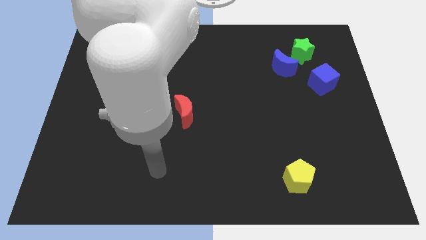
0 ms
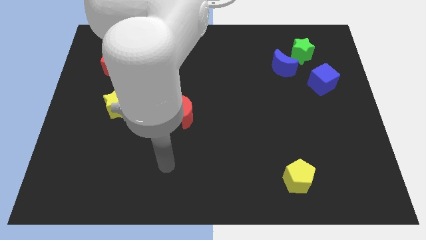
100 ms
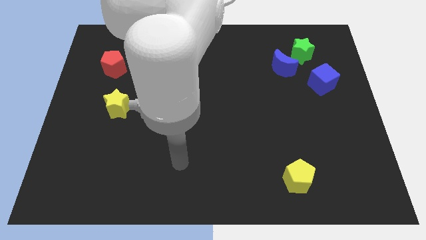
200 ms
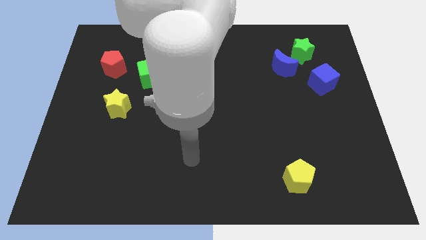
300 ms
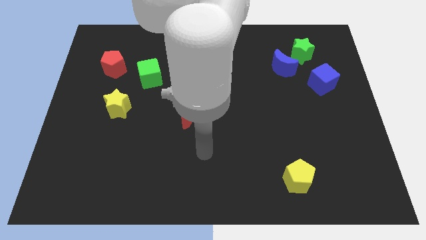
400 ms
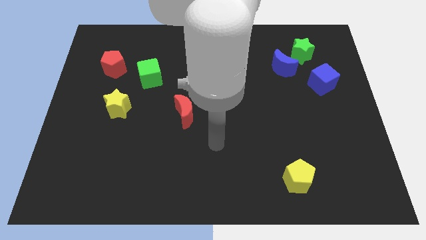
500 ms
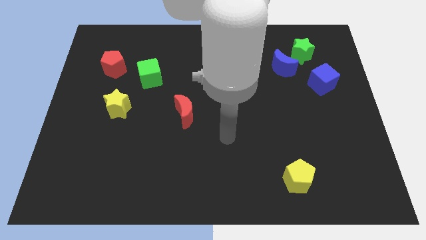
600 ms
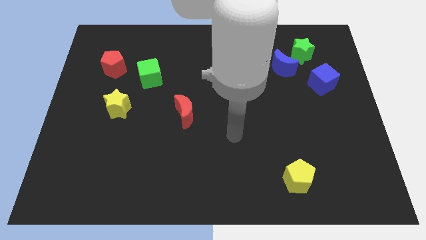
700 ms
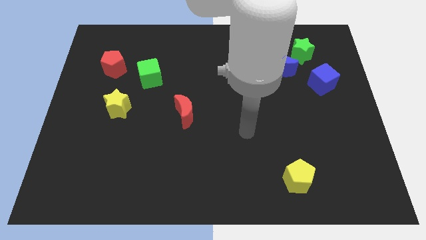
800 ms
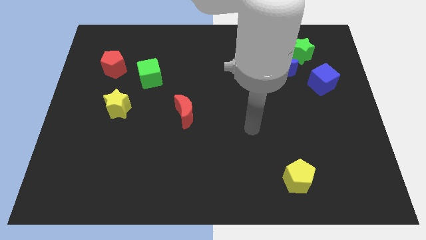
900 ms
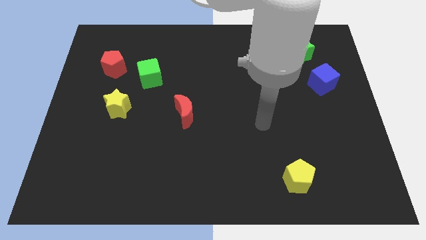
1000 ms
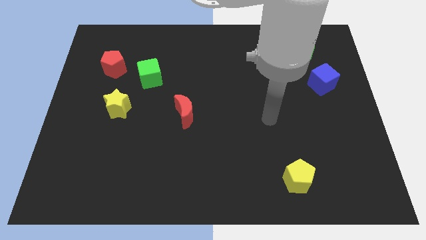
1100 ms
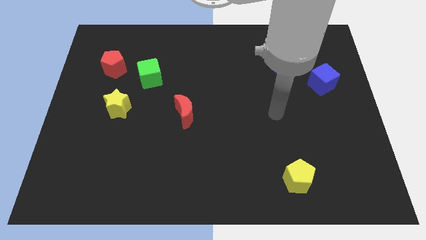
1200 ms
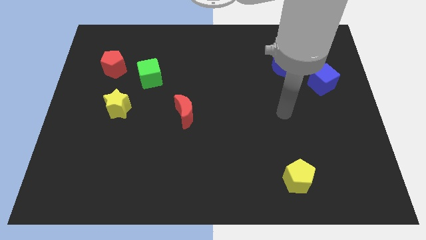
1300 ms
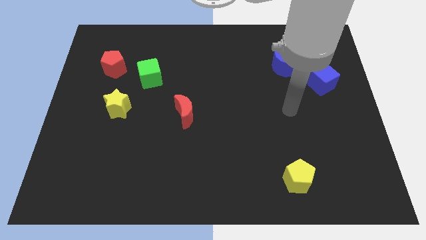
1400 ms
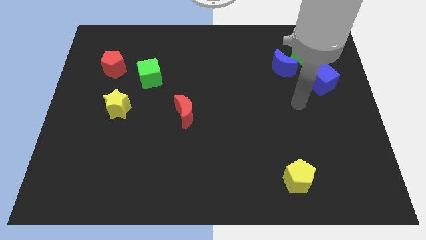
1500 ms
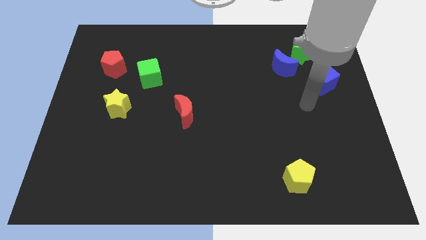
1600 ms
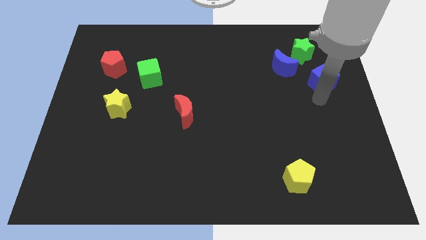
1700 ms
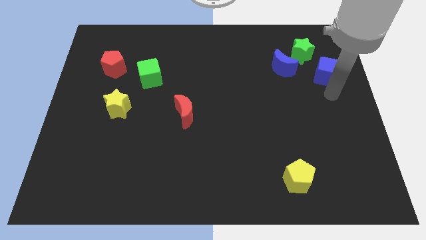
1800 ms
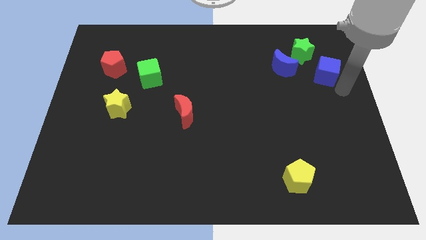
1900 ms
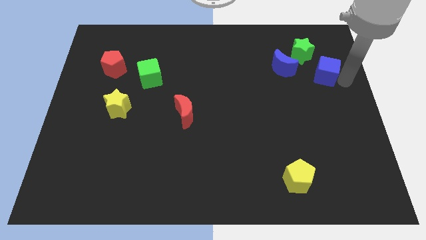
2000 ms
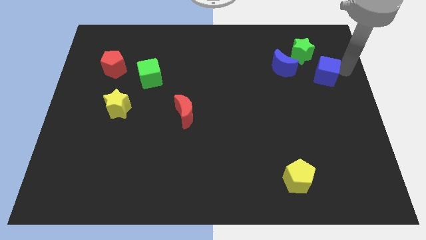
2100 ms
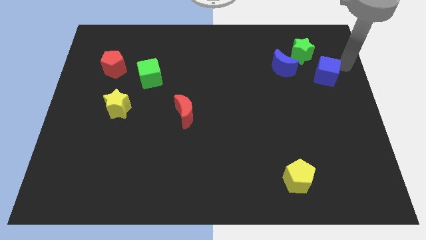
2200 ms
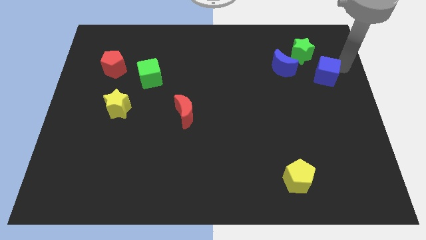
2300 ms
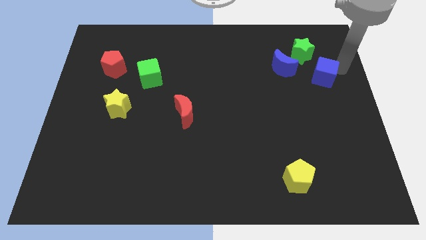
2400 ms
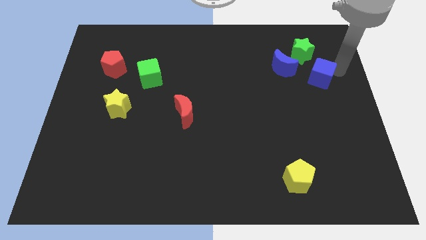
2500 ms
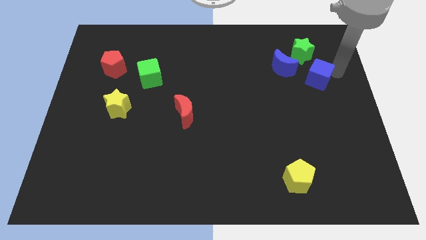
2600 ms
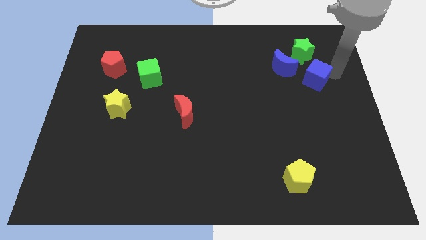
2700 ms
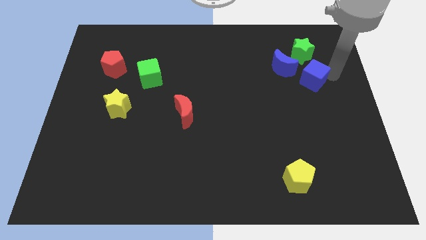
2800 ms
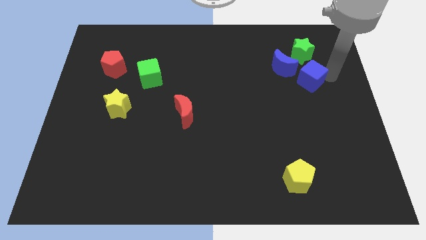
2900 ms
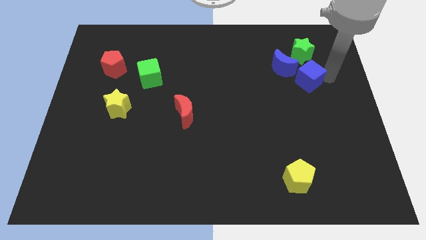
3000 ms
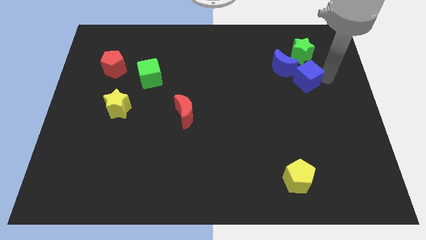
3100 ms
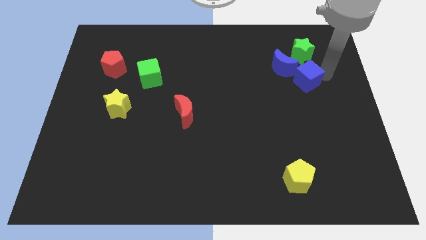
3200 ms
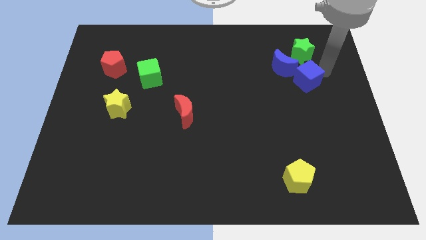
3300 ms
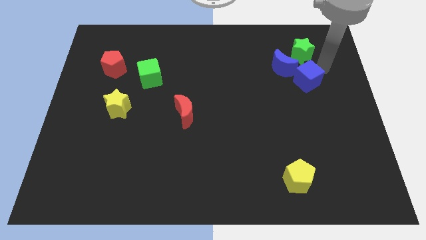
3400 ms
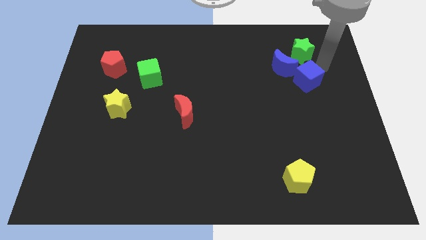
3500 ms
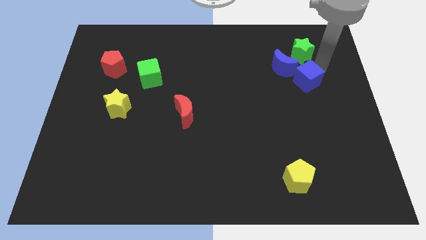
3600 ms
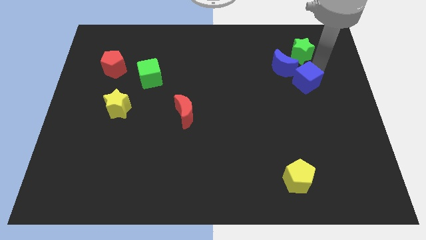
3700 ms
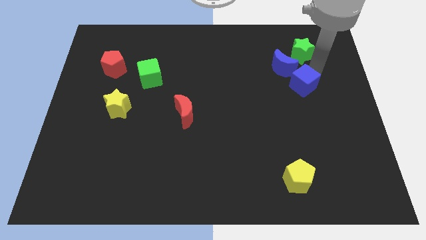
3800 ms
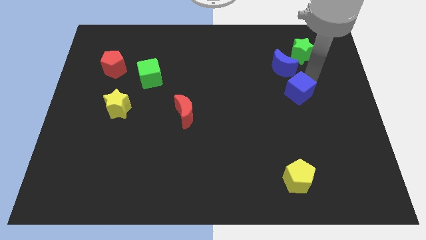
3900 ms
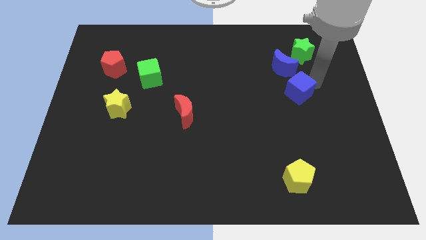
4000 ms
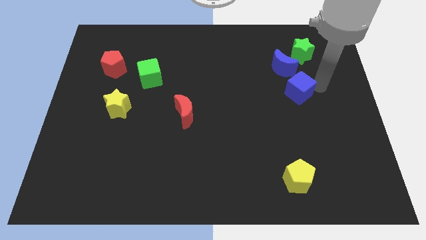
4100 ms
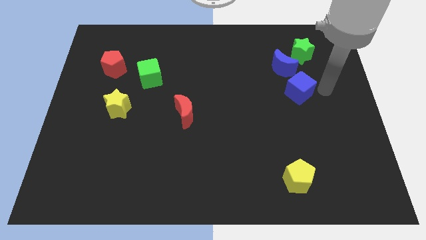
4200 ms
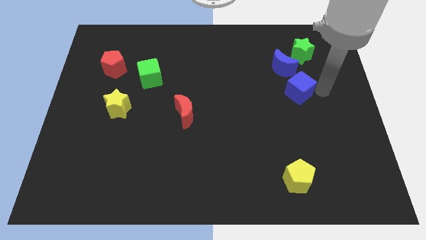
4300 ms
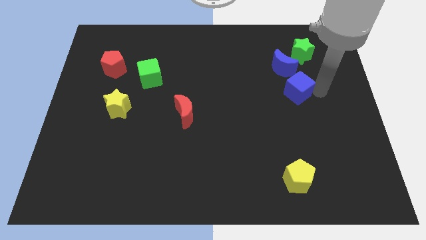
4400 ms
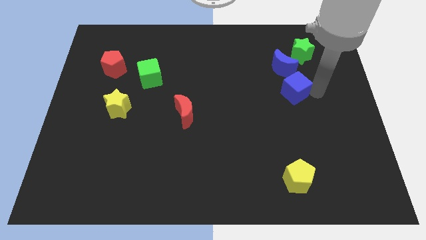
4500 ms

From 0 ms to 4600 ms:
slide the blue cube somewhat to the left

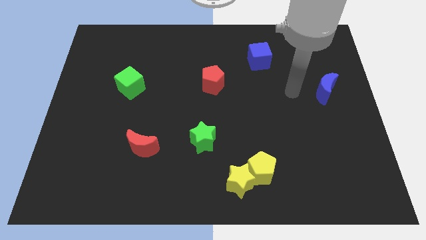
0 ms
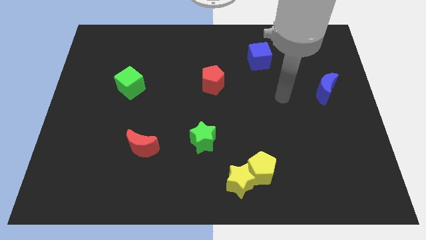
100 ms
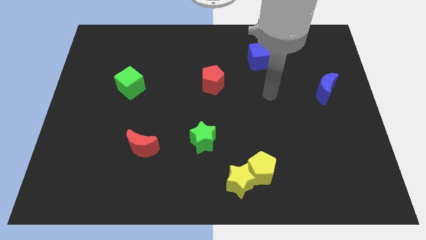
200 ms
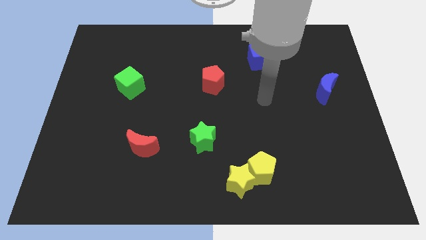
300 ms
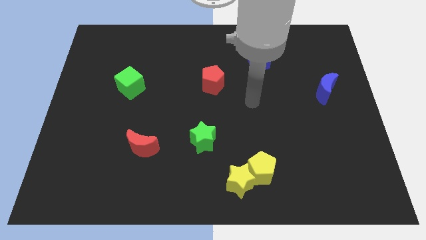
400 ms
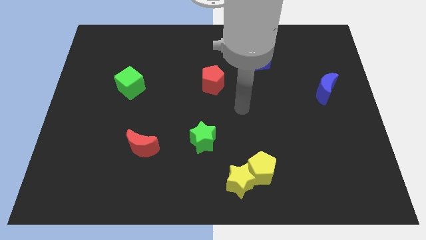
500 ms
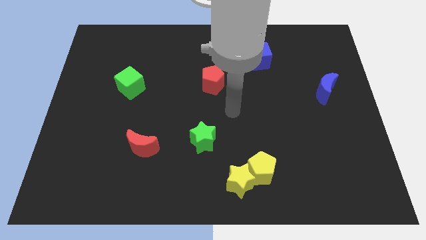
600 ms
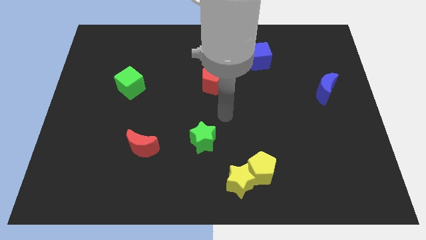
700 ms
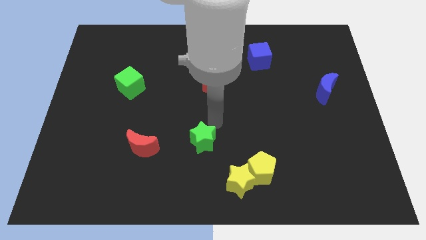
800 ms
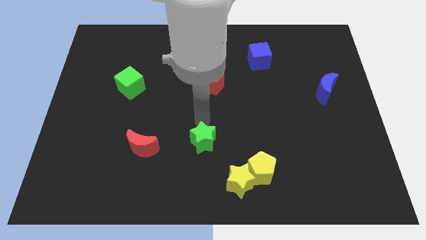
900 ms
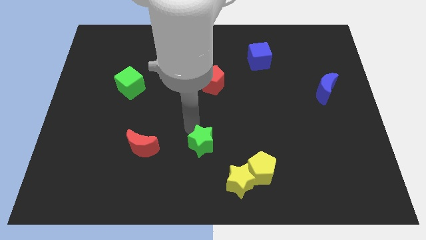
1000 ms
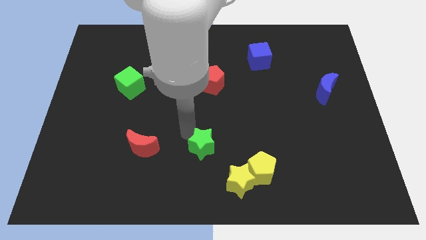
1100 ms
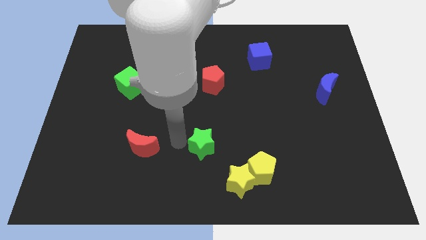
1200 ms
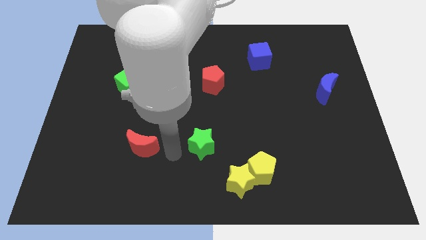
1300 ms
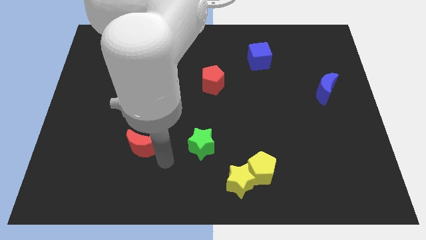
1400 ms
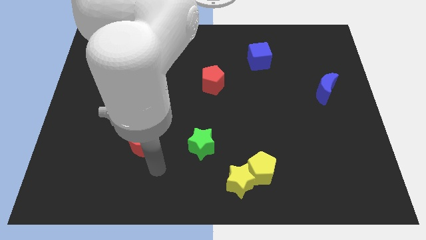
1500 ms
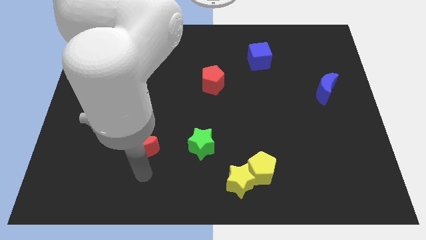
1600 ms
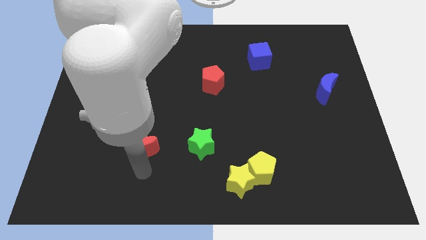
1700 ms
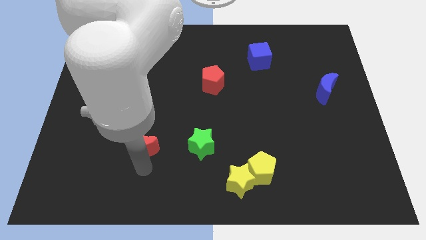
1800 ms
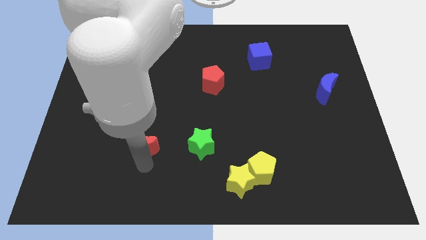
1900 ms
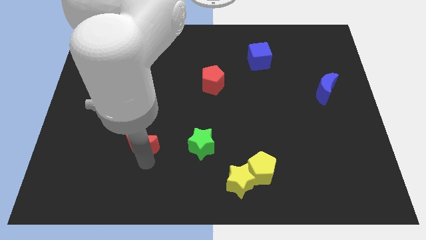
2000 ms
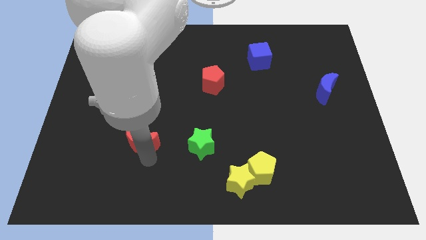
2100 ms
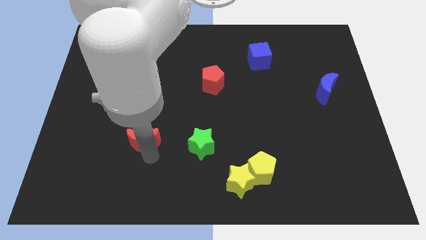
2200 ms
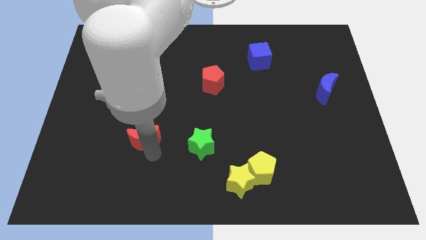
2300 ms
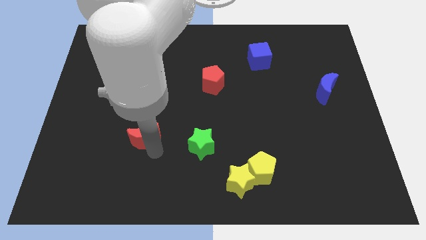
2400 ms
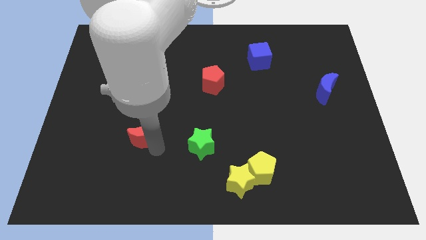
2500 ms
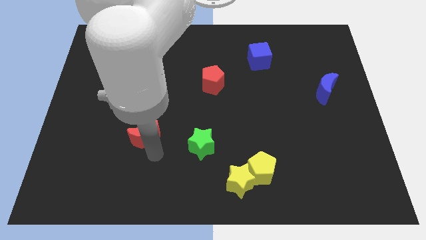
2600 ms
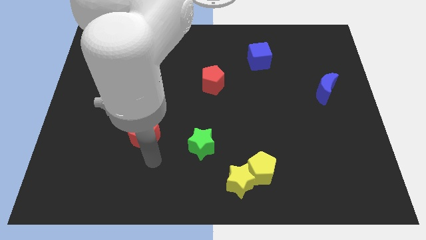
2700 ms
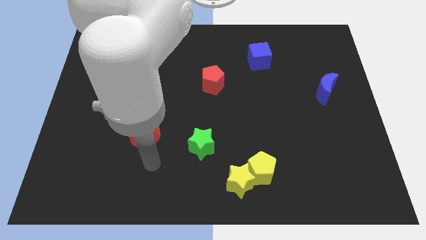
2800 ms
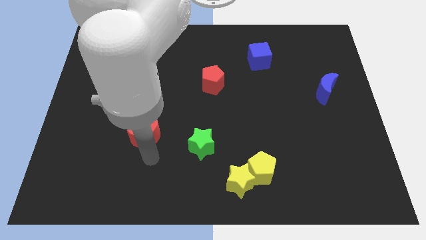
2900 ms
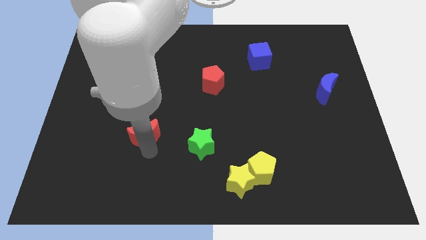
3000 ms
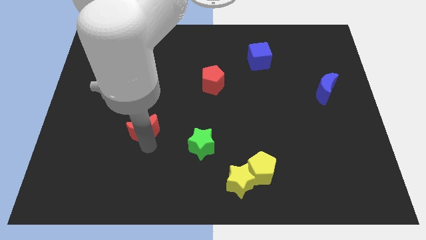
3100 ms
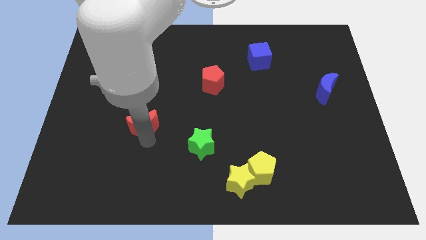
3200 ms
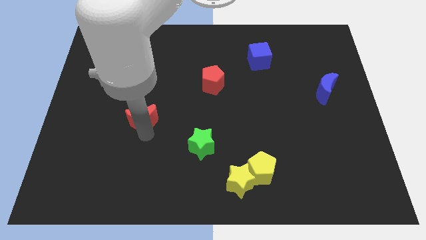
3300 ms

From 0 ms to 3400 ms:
slightly slide the red moon up
